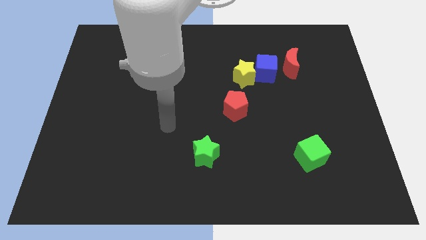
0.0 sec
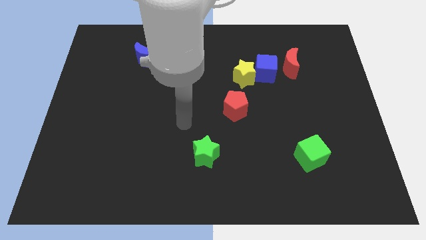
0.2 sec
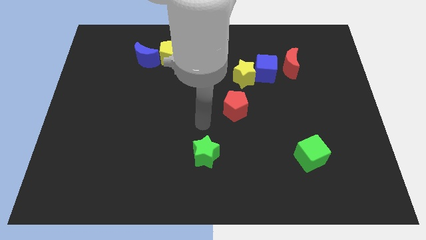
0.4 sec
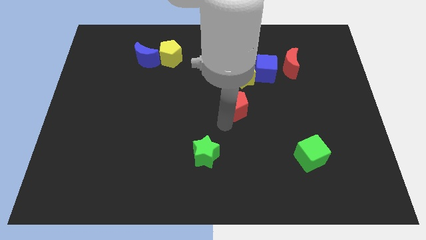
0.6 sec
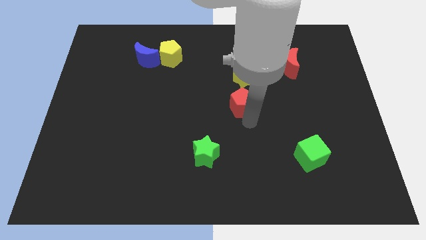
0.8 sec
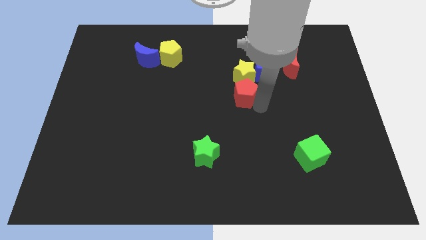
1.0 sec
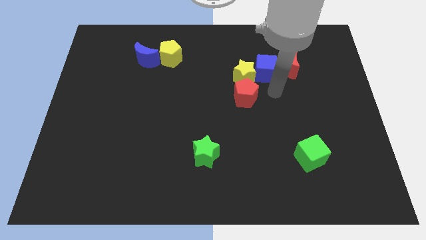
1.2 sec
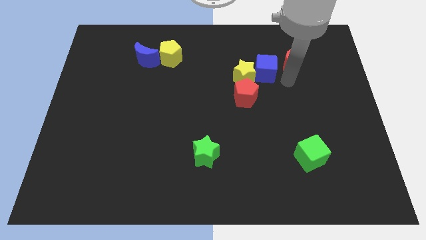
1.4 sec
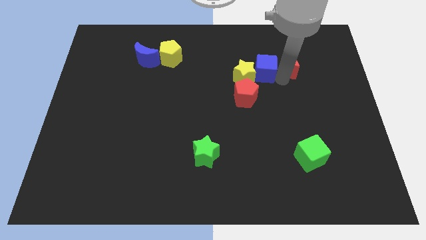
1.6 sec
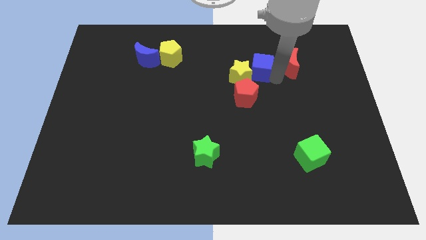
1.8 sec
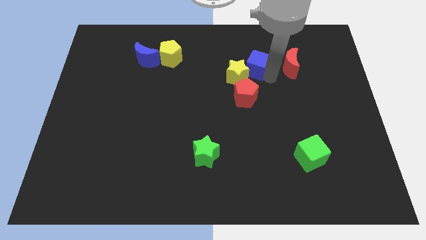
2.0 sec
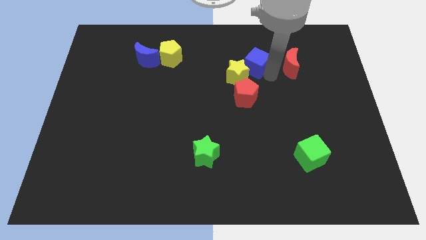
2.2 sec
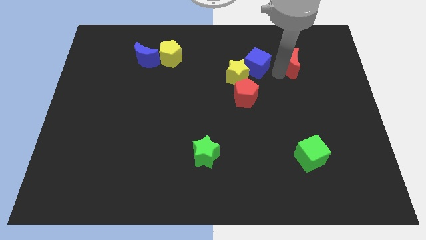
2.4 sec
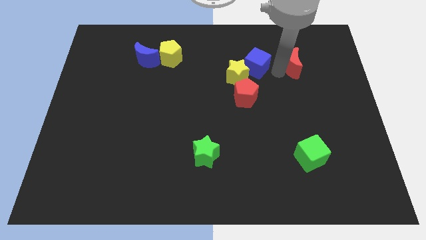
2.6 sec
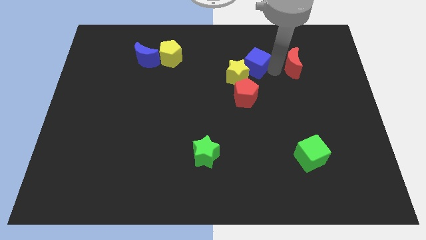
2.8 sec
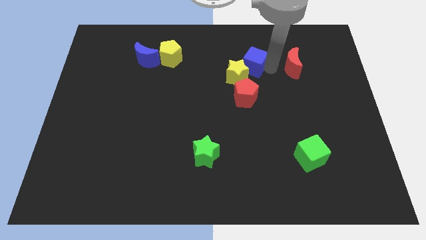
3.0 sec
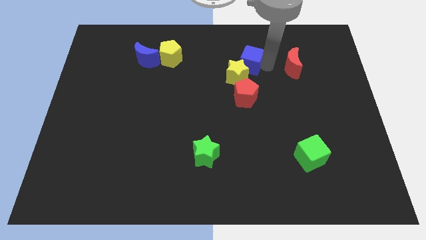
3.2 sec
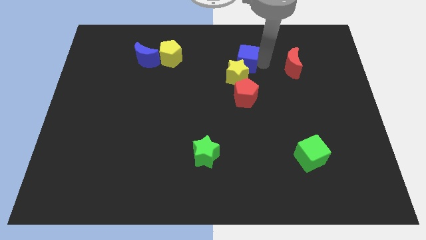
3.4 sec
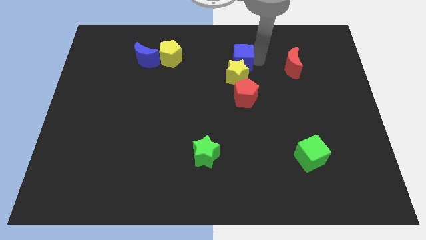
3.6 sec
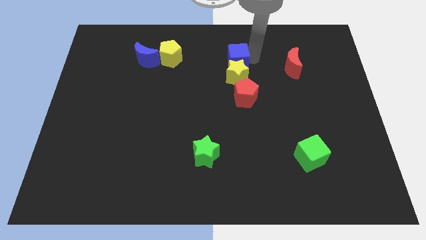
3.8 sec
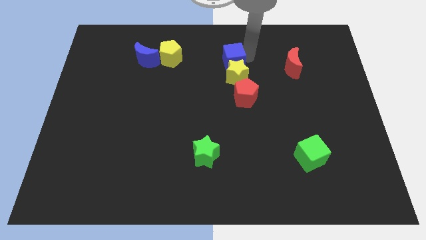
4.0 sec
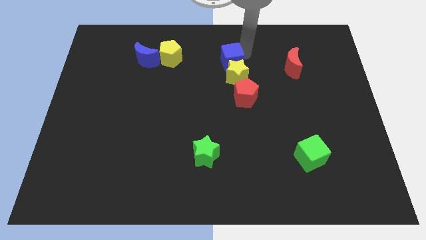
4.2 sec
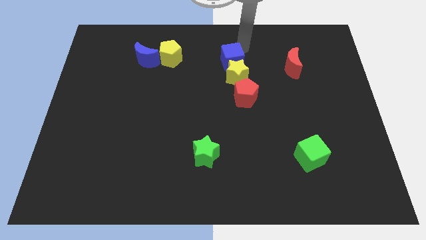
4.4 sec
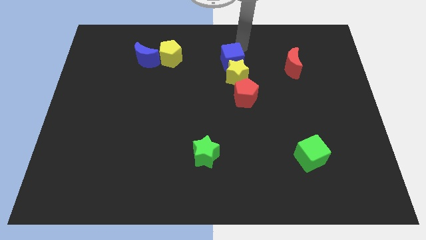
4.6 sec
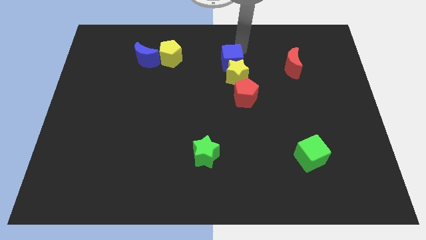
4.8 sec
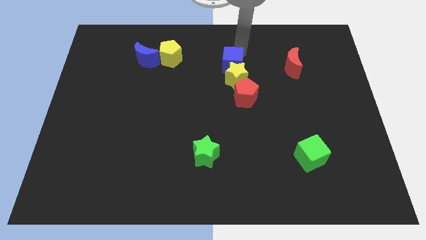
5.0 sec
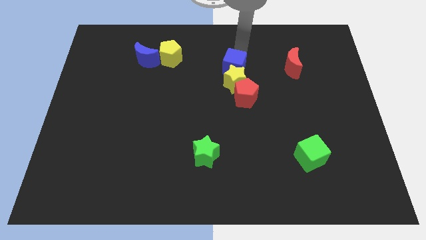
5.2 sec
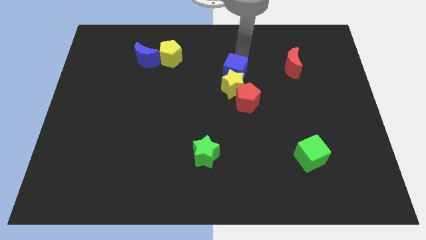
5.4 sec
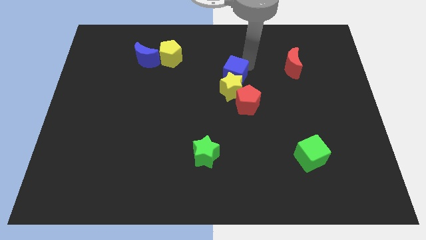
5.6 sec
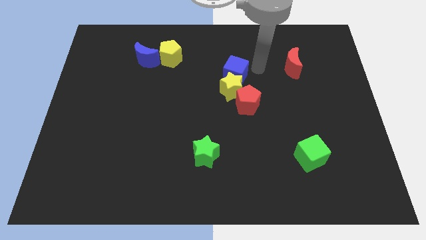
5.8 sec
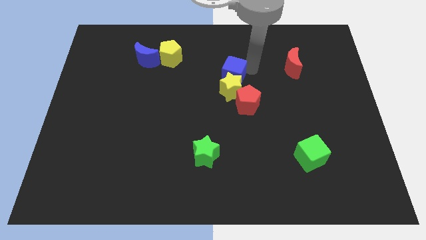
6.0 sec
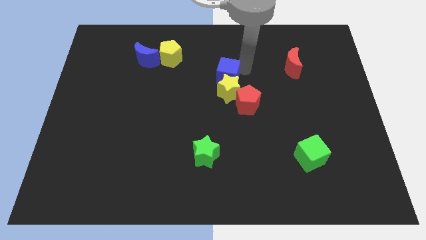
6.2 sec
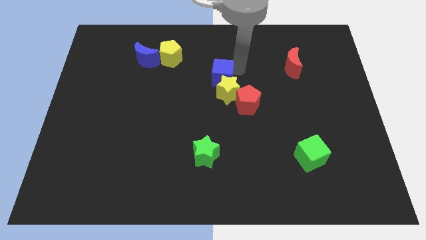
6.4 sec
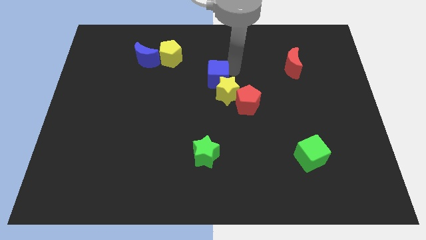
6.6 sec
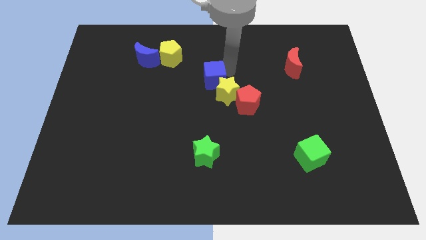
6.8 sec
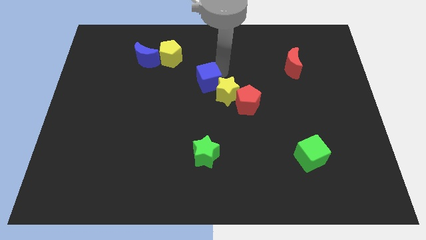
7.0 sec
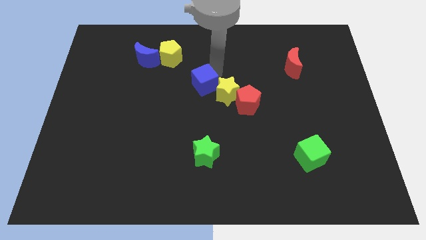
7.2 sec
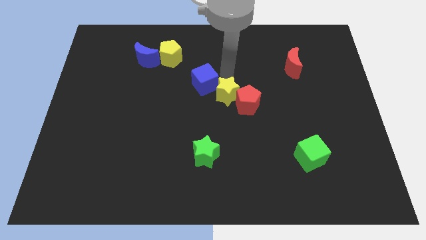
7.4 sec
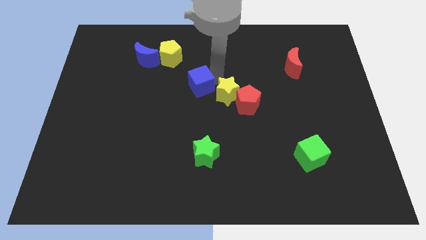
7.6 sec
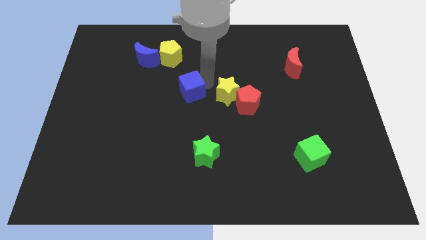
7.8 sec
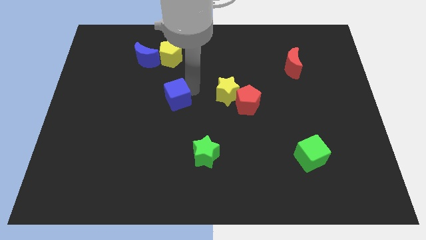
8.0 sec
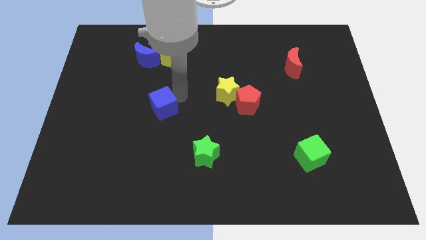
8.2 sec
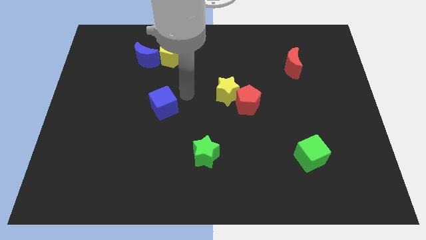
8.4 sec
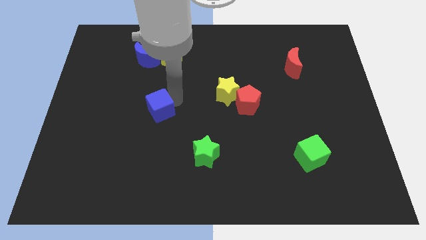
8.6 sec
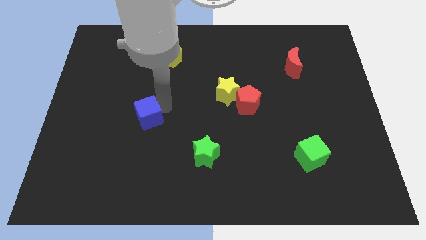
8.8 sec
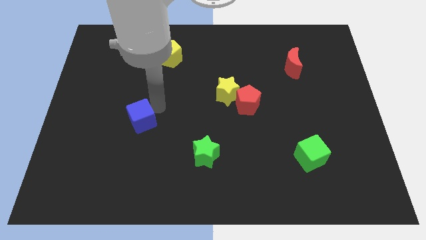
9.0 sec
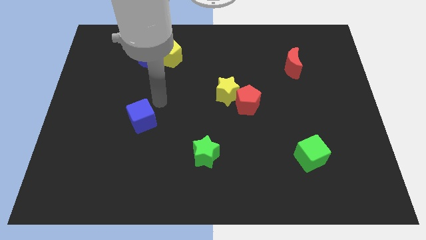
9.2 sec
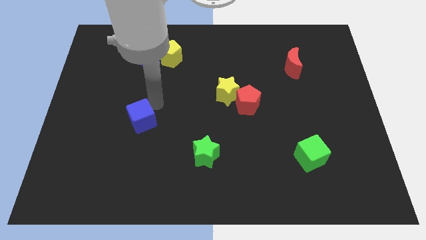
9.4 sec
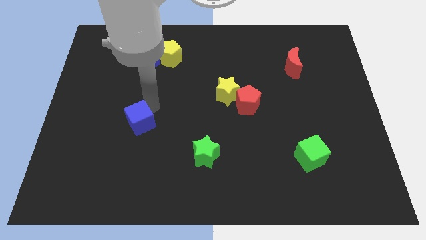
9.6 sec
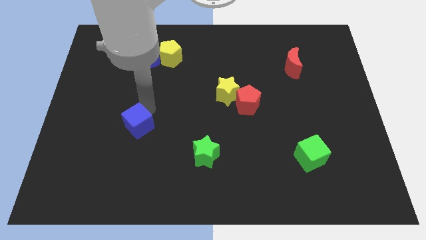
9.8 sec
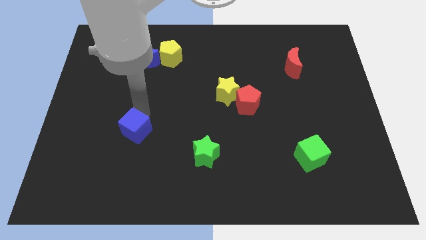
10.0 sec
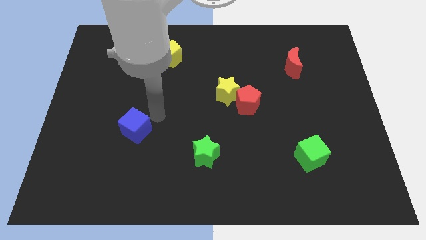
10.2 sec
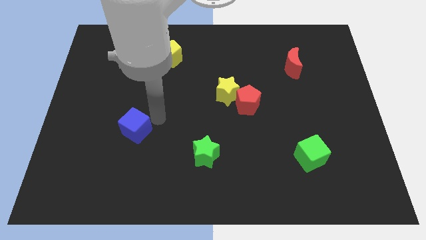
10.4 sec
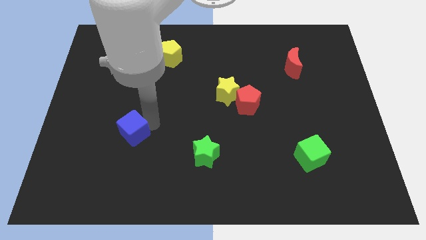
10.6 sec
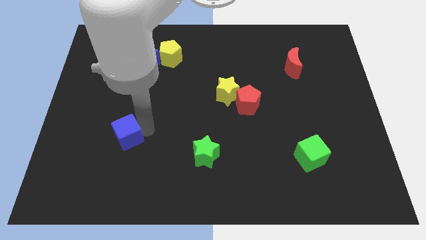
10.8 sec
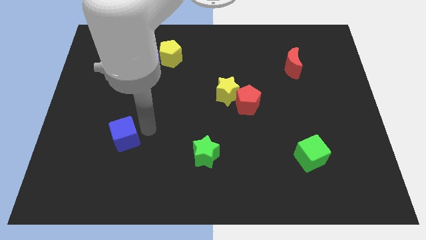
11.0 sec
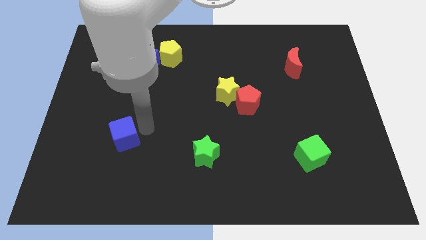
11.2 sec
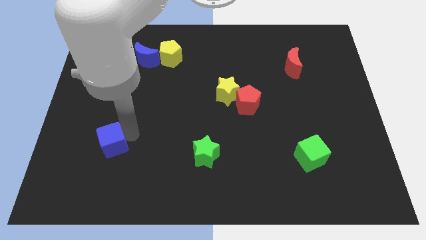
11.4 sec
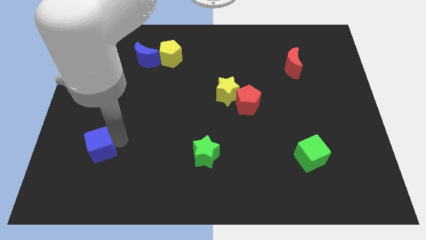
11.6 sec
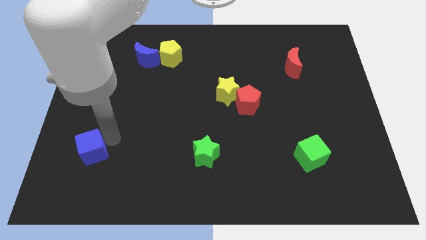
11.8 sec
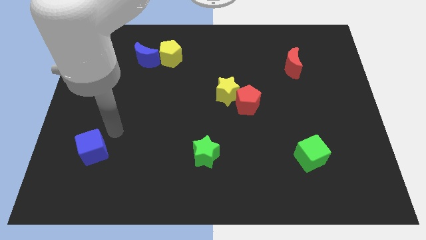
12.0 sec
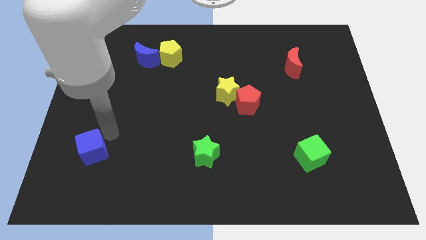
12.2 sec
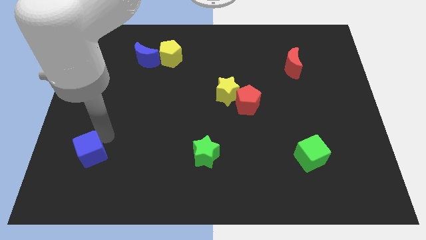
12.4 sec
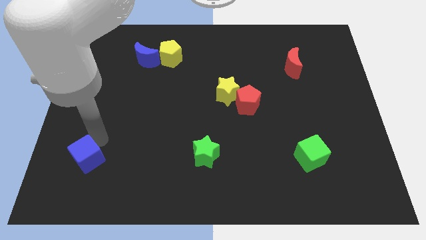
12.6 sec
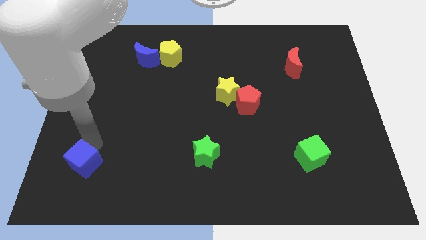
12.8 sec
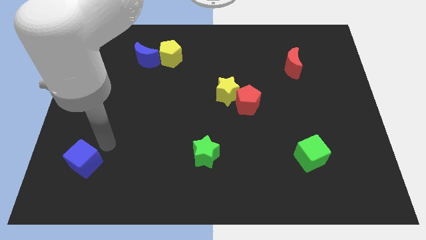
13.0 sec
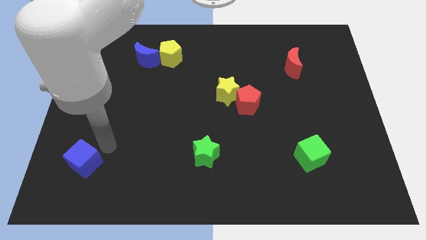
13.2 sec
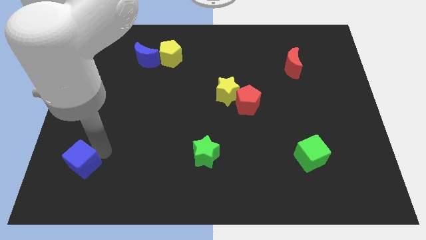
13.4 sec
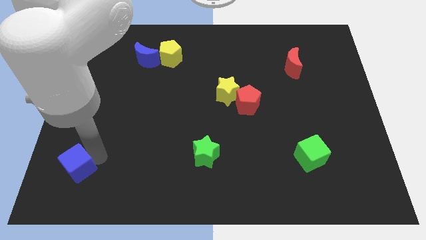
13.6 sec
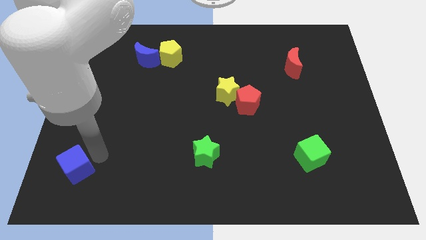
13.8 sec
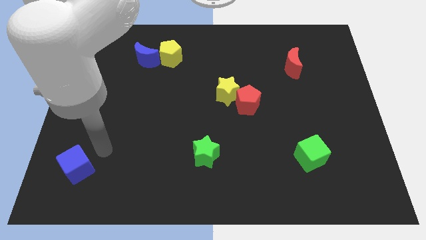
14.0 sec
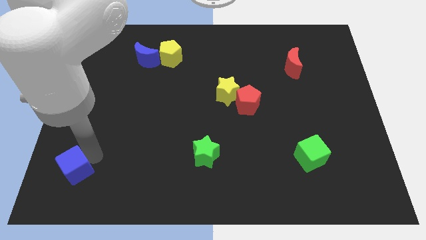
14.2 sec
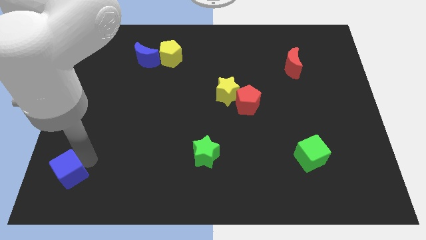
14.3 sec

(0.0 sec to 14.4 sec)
move the blue cube to the bottom left of the board
